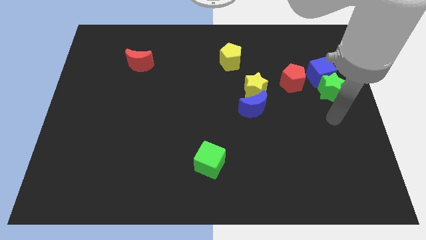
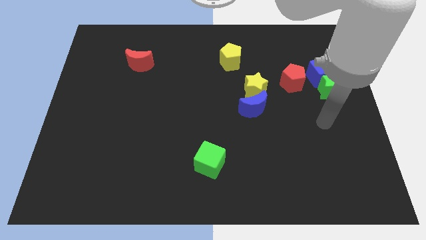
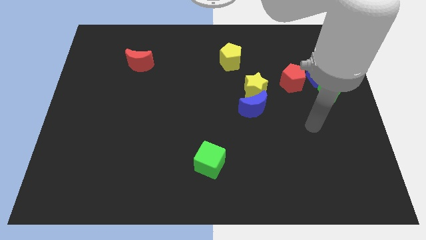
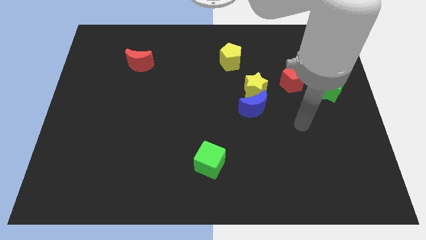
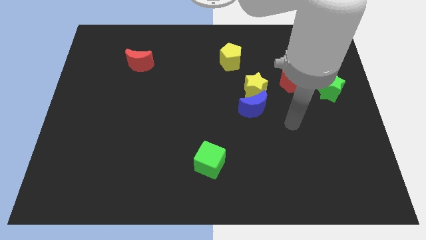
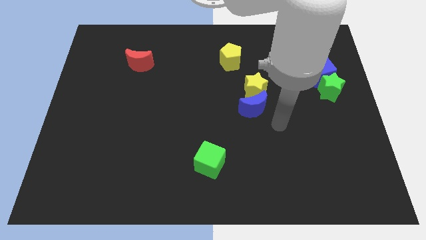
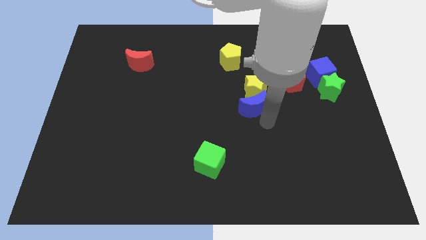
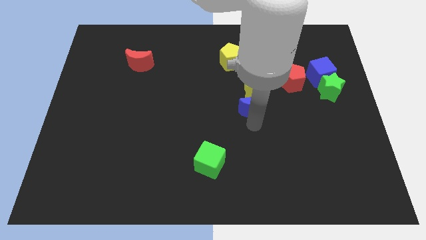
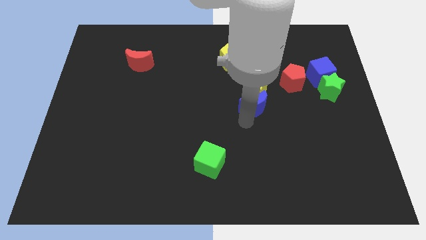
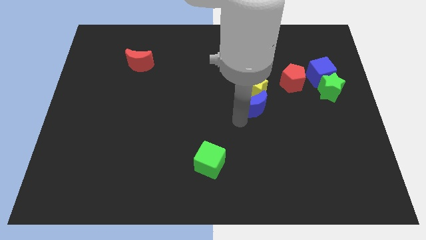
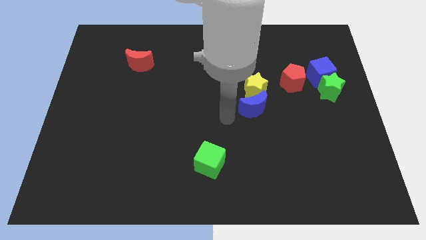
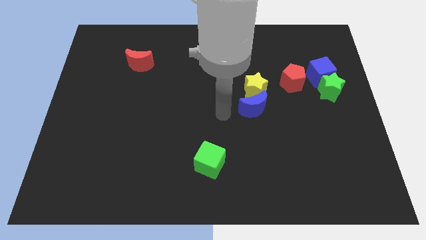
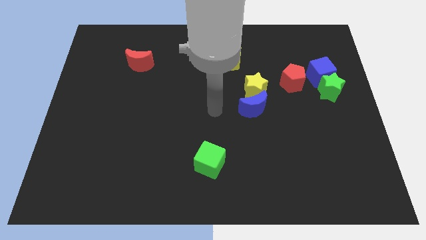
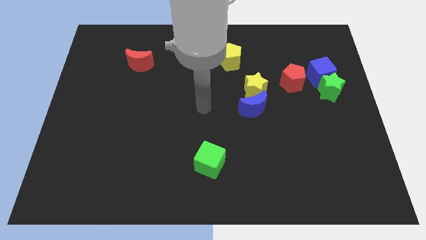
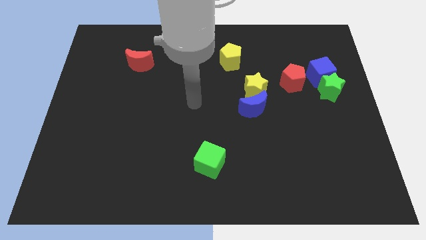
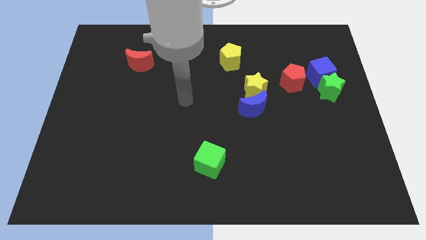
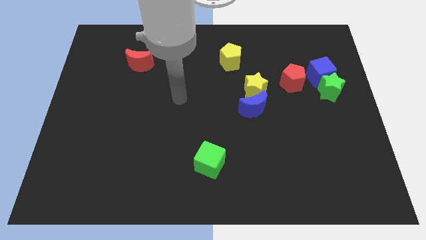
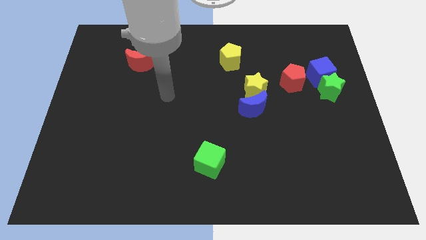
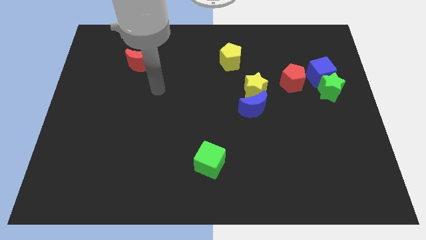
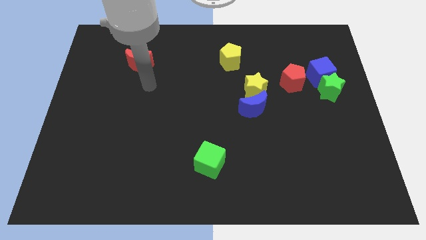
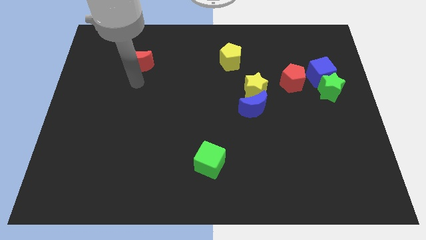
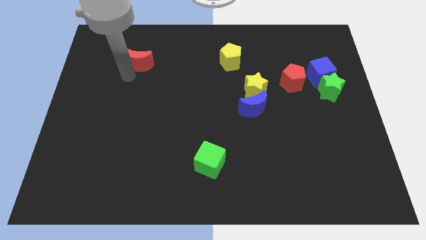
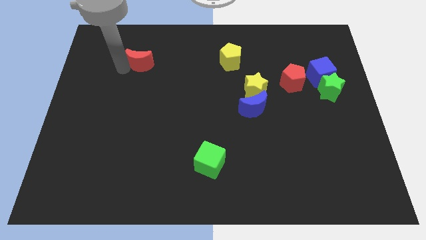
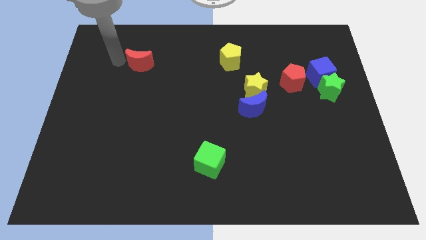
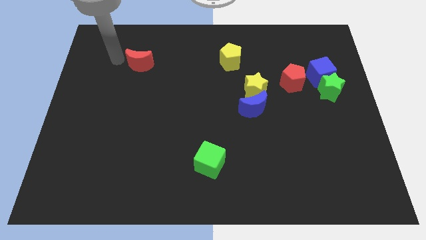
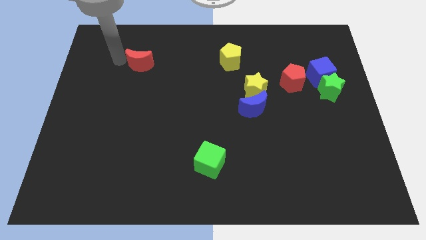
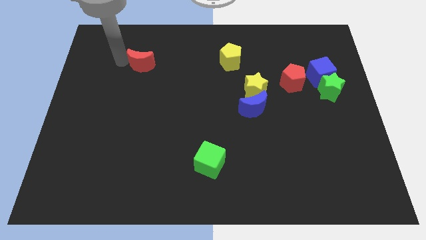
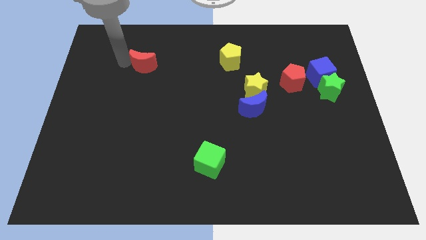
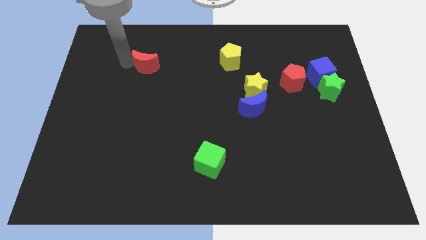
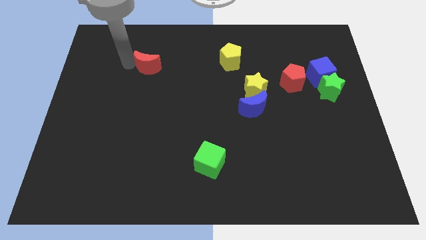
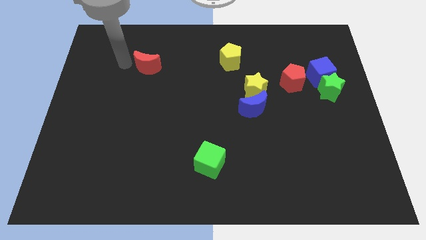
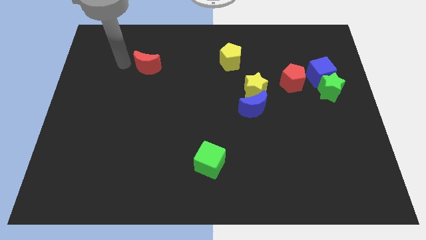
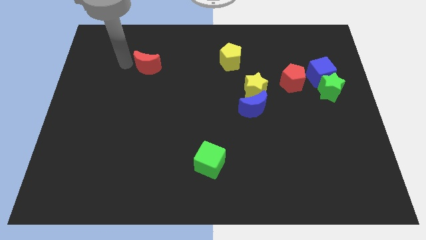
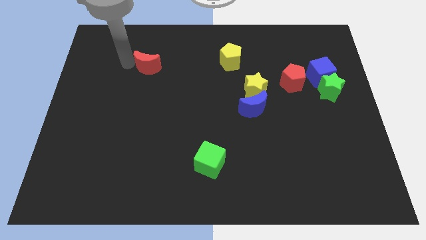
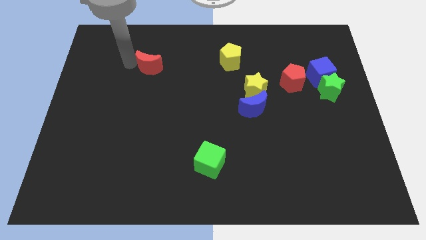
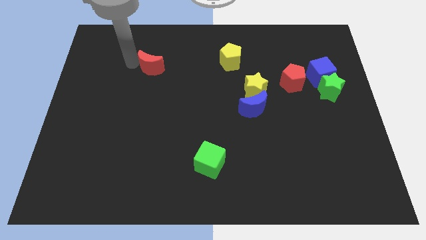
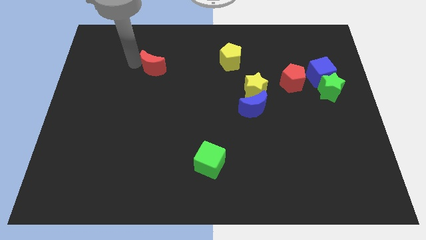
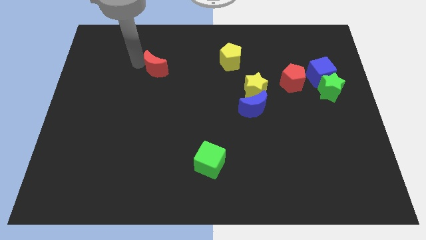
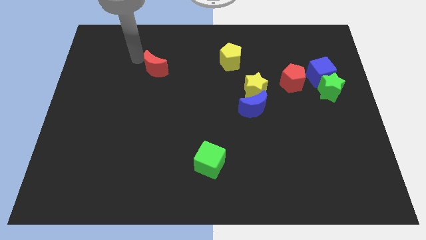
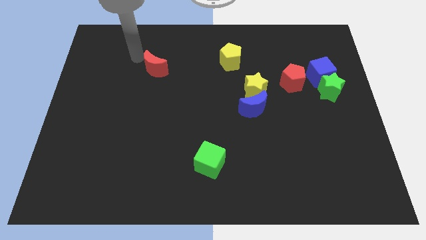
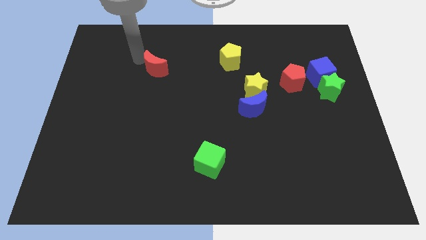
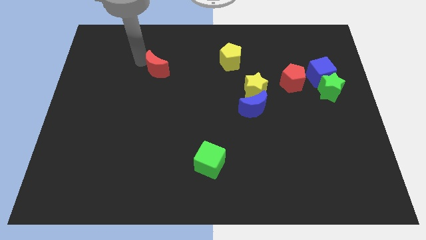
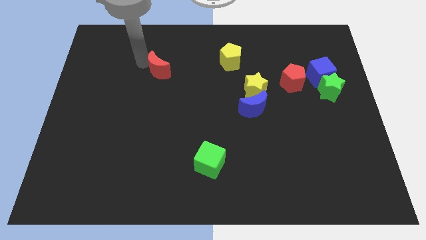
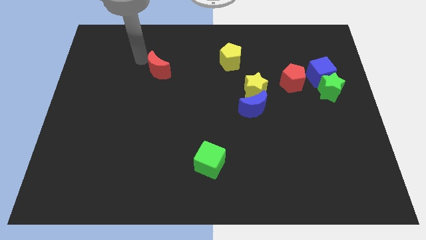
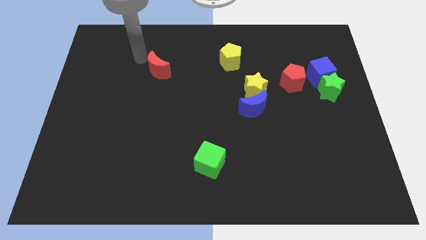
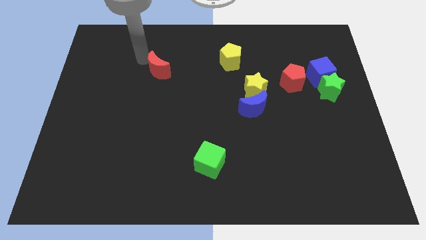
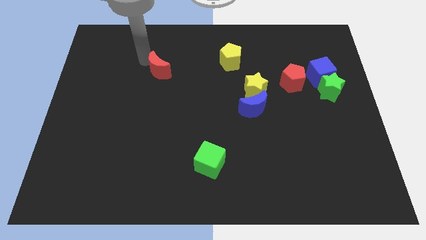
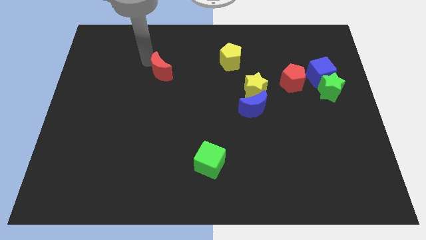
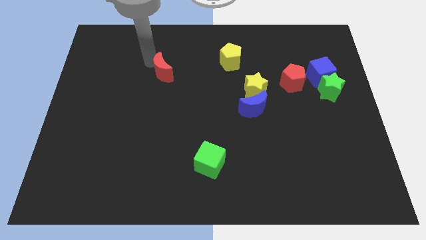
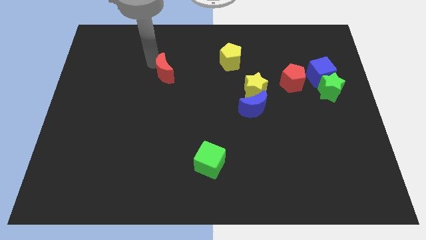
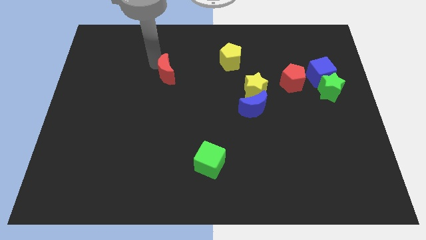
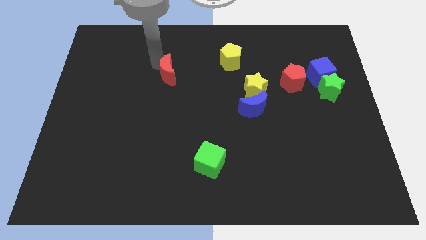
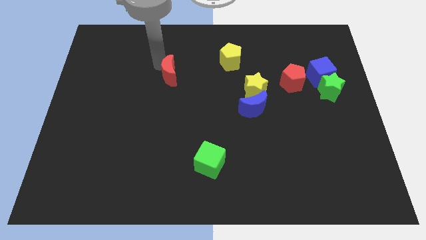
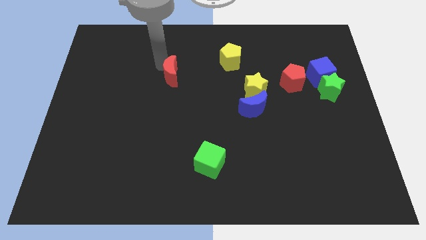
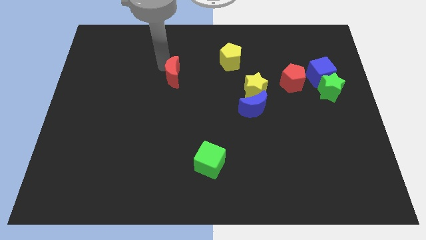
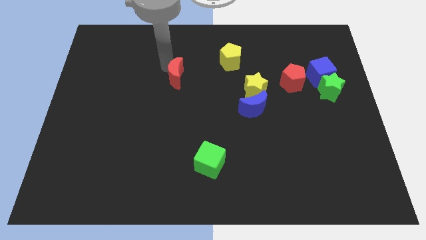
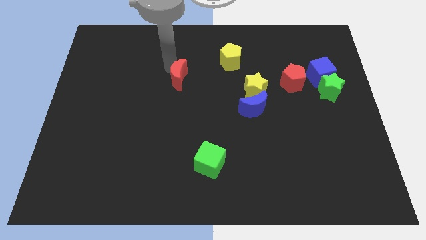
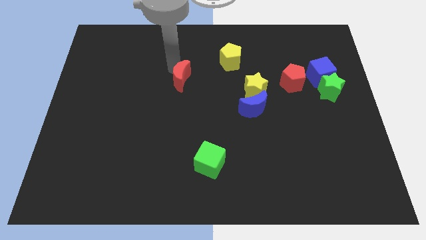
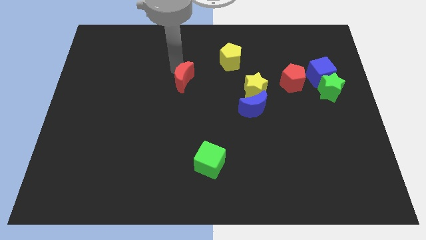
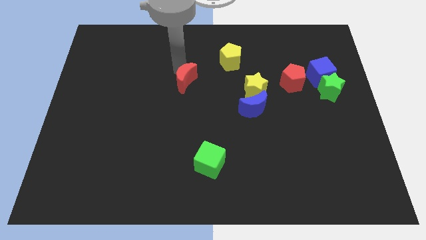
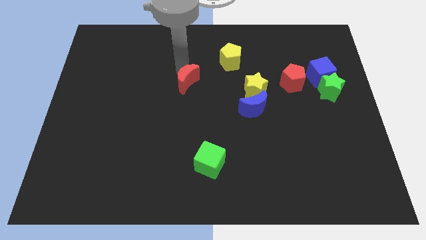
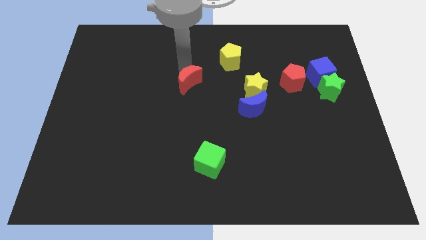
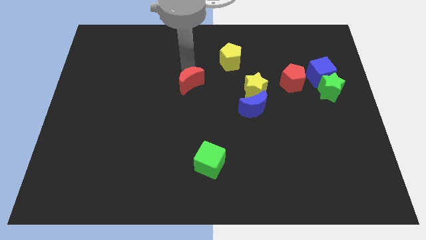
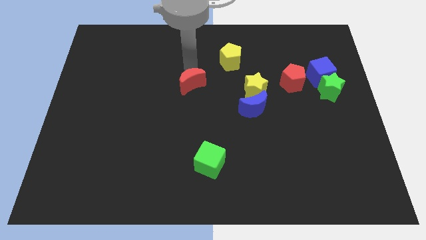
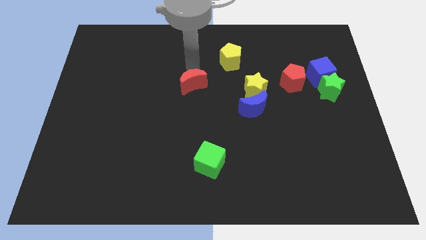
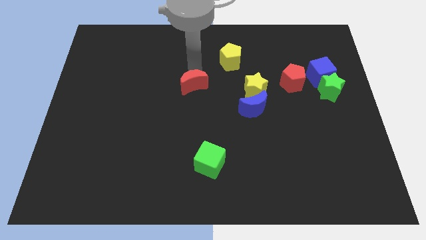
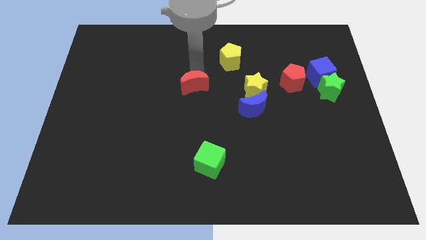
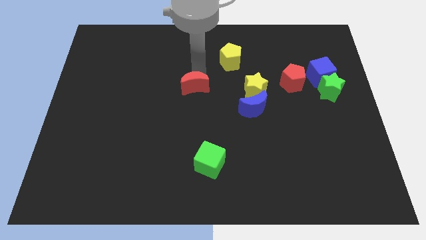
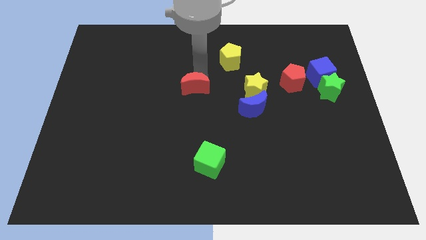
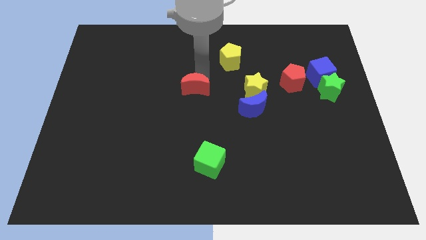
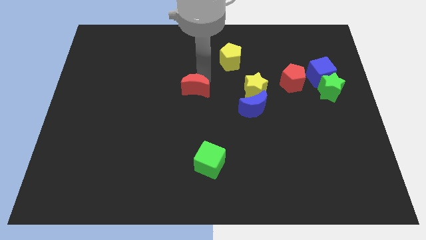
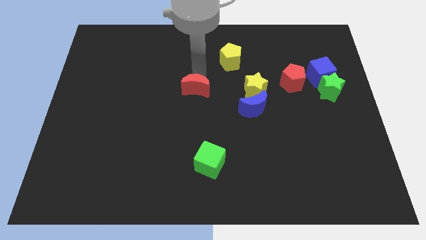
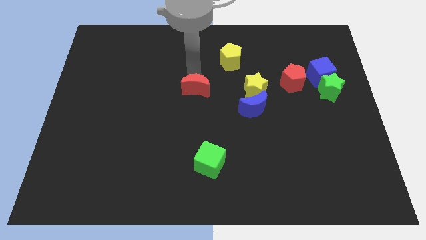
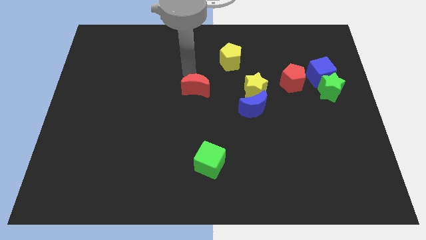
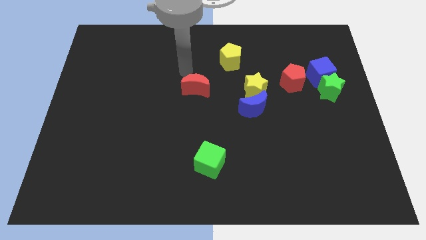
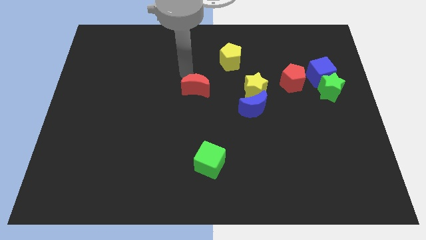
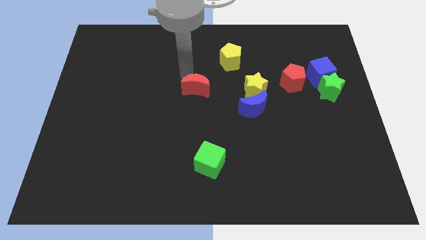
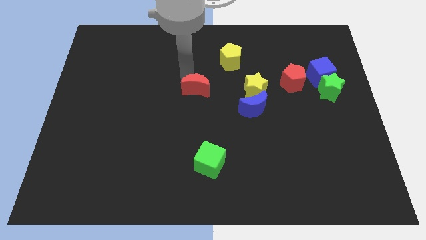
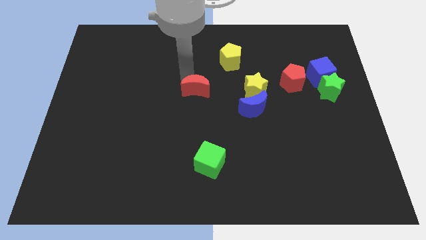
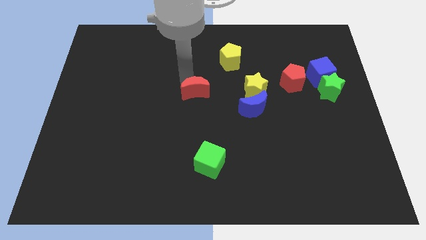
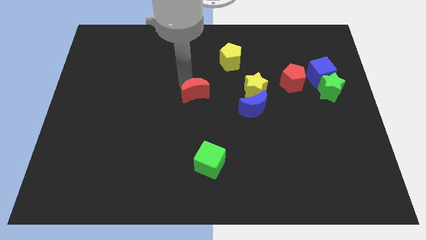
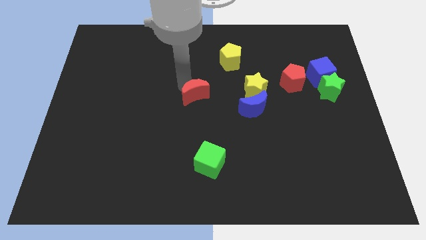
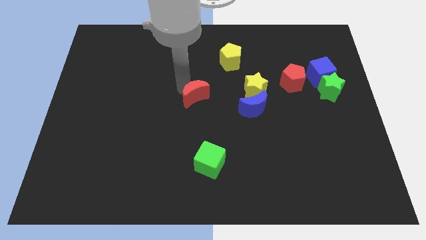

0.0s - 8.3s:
put the red moon just left of the blue moon
